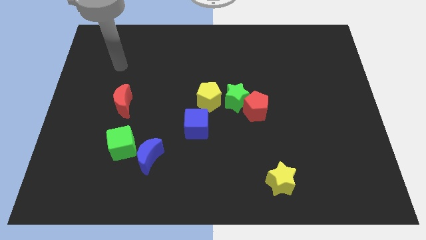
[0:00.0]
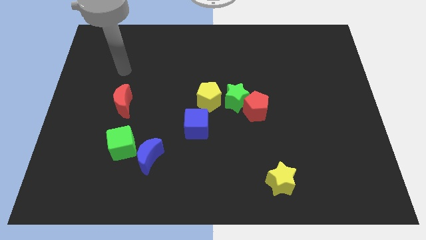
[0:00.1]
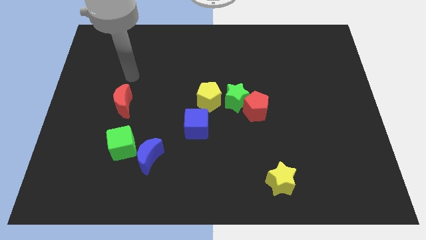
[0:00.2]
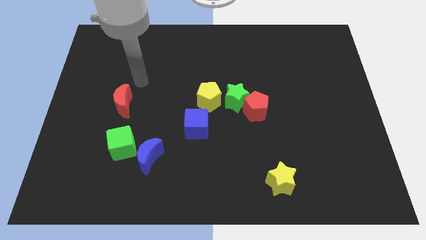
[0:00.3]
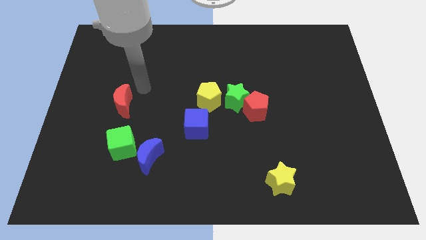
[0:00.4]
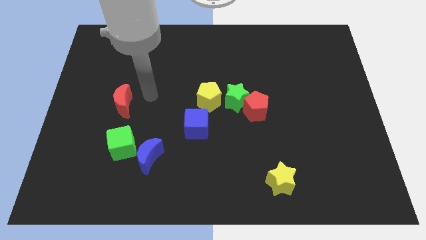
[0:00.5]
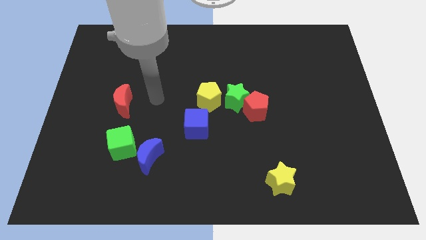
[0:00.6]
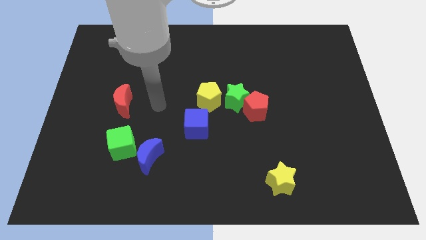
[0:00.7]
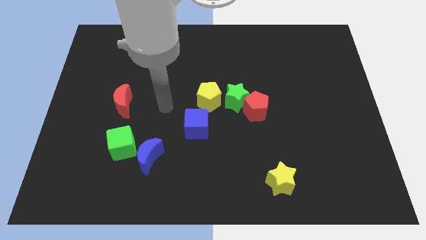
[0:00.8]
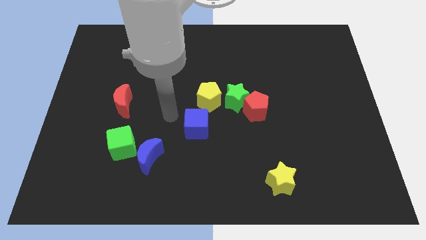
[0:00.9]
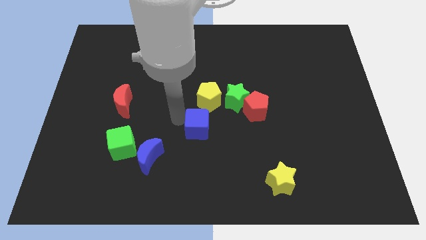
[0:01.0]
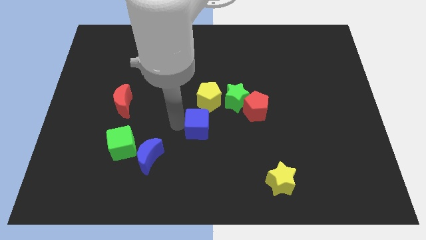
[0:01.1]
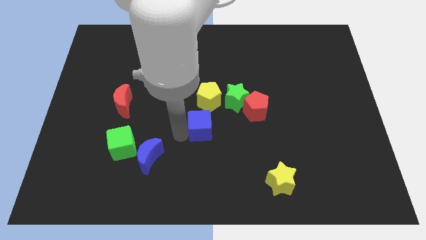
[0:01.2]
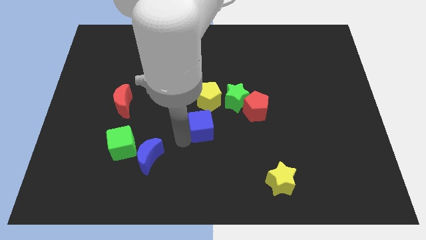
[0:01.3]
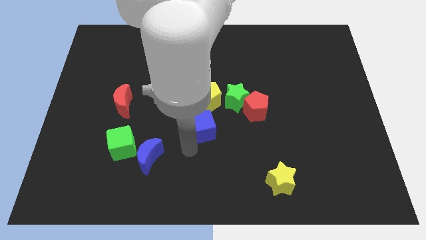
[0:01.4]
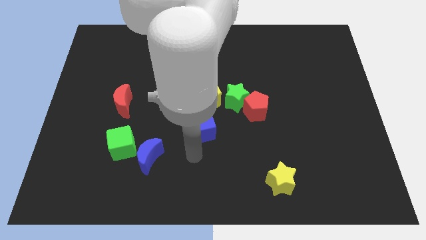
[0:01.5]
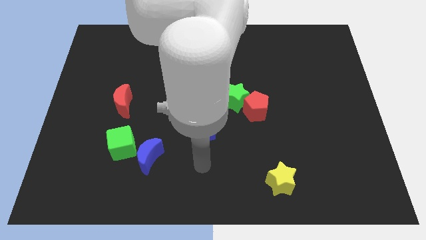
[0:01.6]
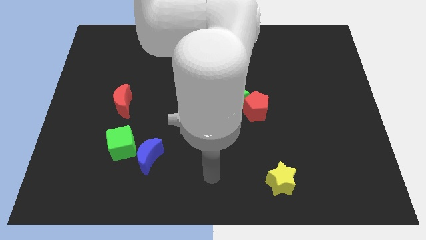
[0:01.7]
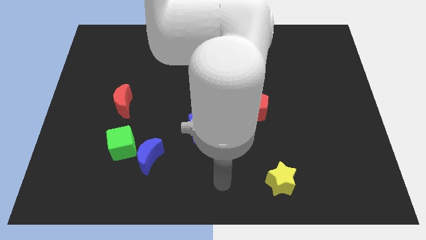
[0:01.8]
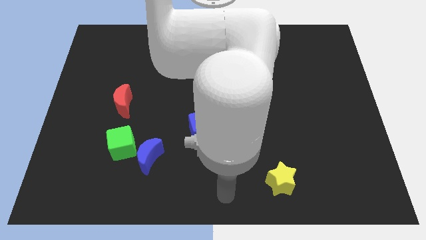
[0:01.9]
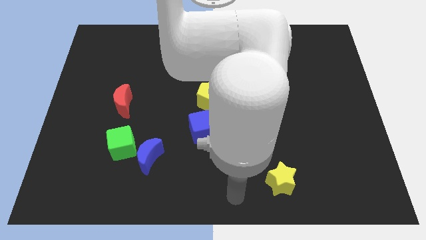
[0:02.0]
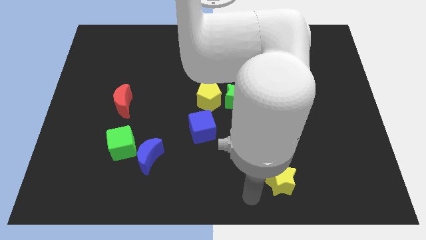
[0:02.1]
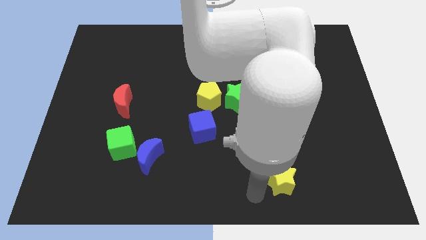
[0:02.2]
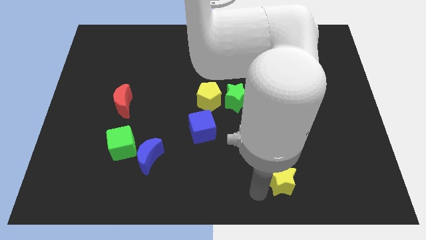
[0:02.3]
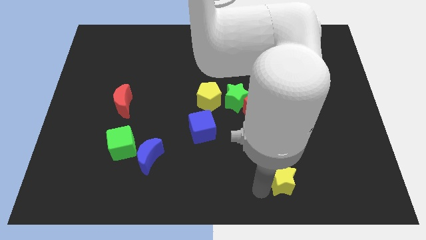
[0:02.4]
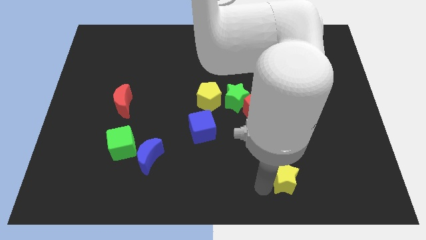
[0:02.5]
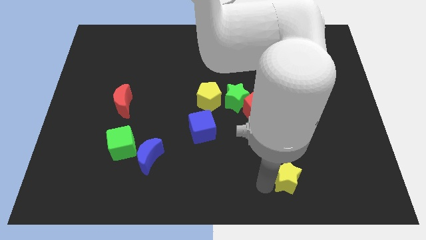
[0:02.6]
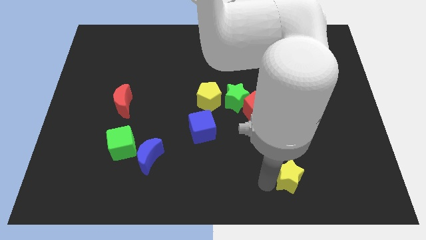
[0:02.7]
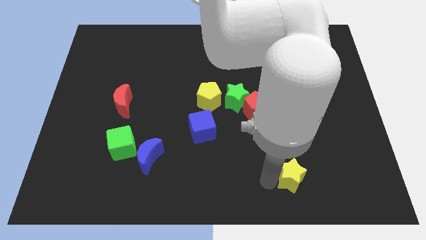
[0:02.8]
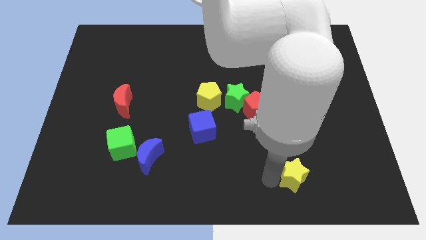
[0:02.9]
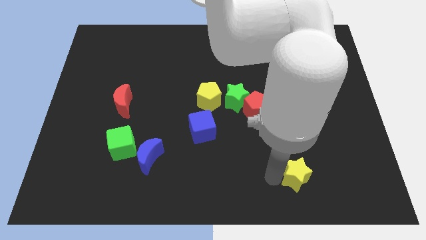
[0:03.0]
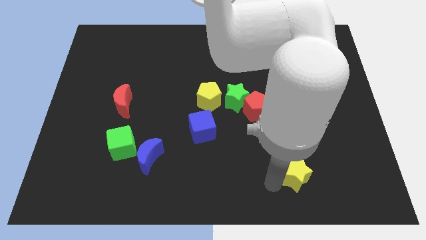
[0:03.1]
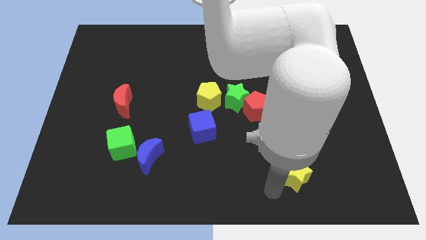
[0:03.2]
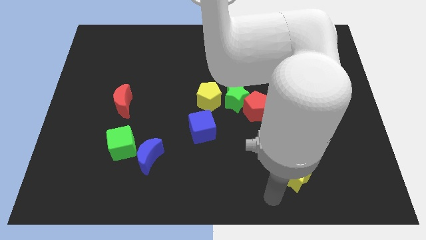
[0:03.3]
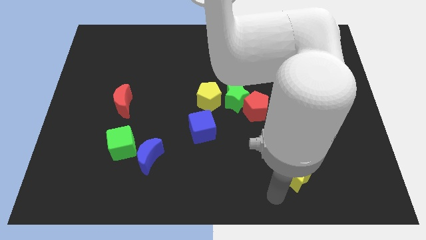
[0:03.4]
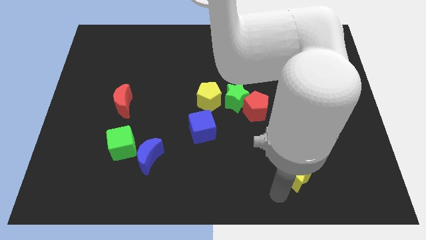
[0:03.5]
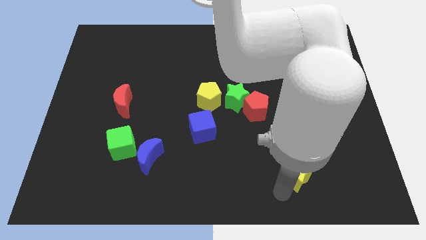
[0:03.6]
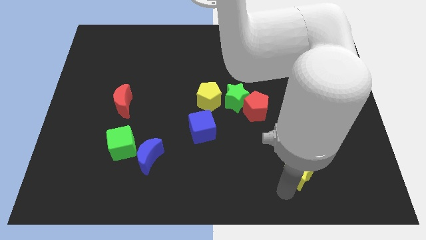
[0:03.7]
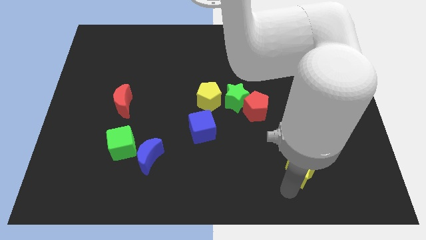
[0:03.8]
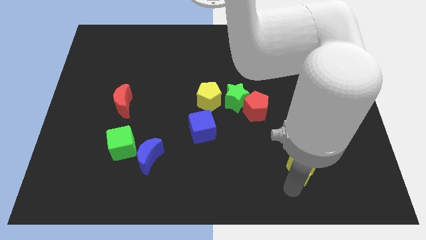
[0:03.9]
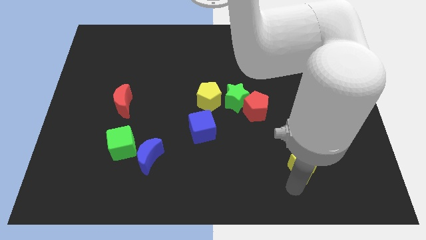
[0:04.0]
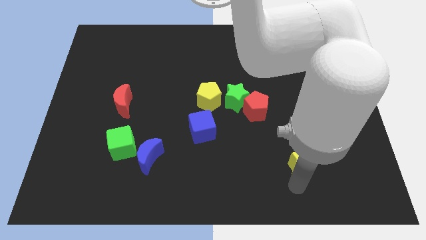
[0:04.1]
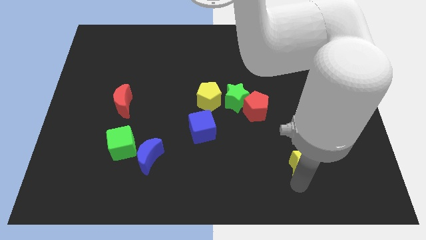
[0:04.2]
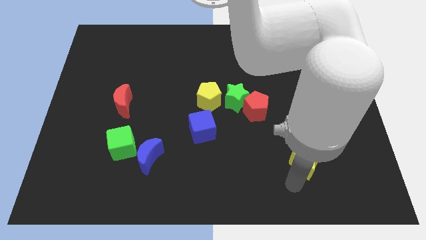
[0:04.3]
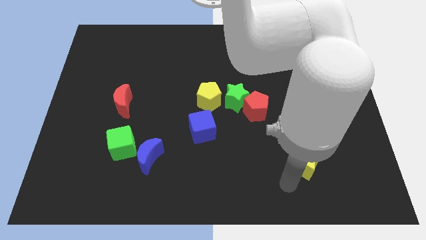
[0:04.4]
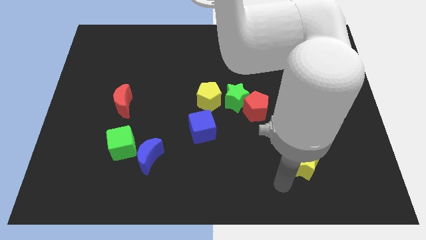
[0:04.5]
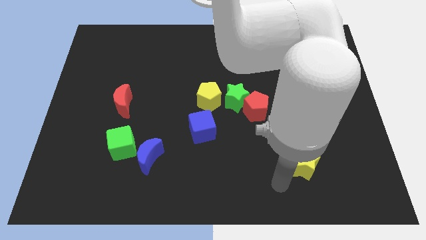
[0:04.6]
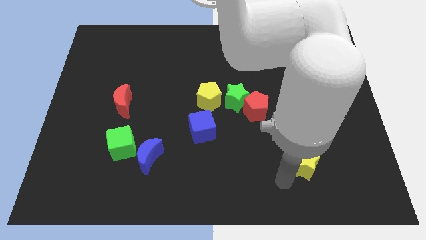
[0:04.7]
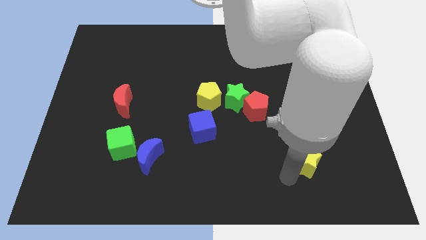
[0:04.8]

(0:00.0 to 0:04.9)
slightly move the yellow star upwards and then to the right

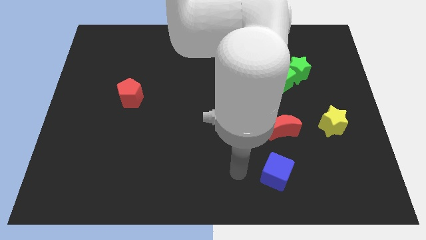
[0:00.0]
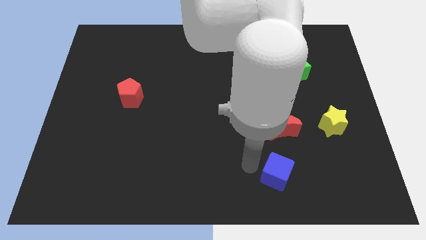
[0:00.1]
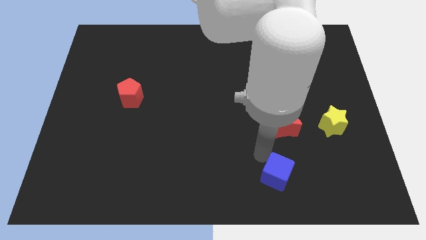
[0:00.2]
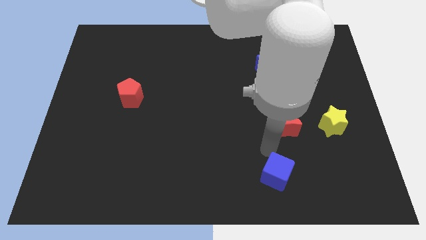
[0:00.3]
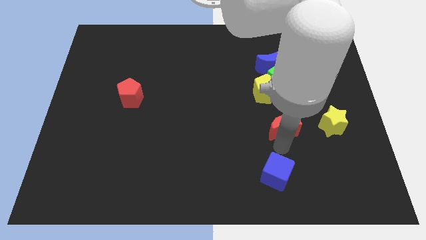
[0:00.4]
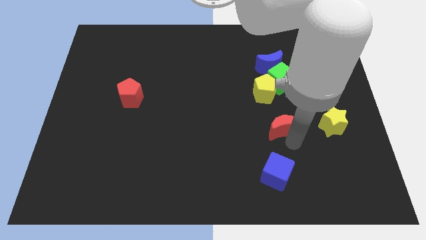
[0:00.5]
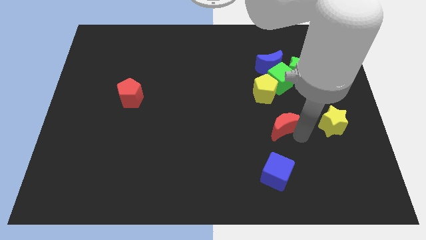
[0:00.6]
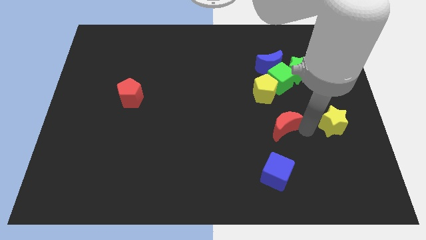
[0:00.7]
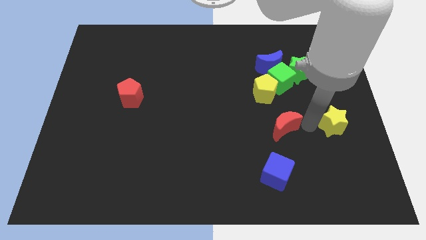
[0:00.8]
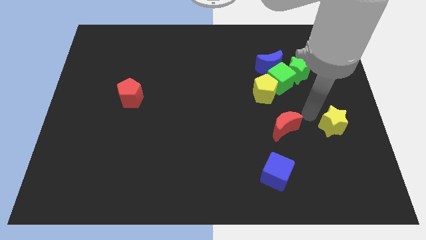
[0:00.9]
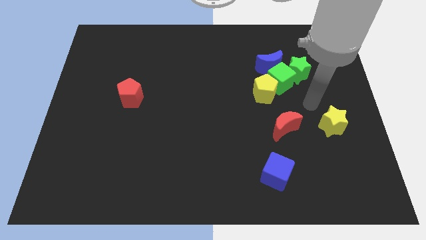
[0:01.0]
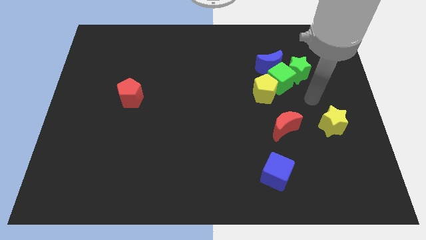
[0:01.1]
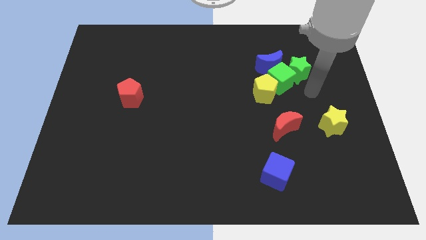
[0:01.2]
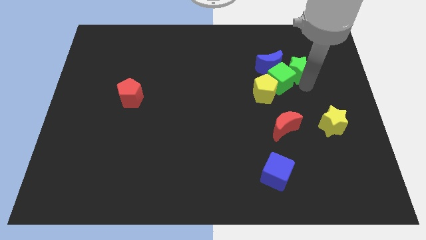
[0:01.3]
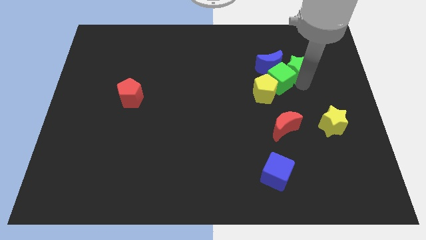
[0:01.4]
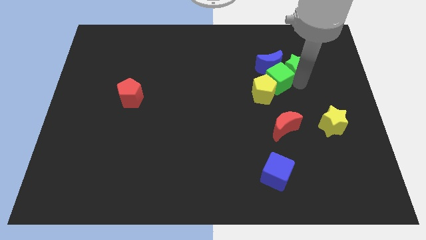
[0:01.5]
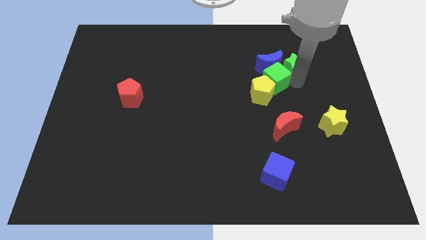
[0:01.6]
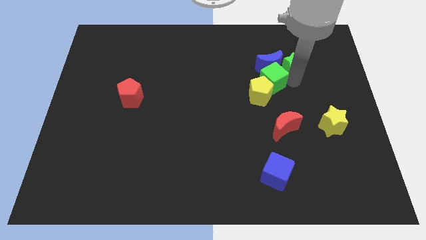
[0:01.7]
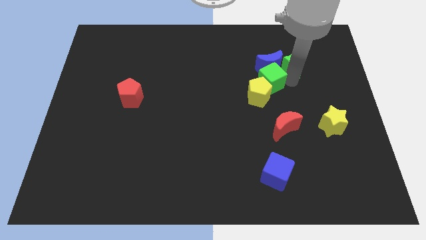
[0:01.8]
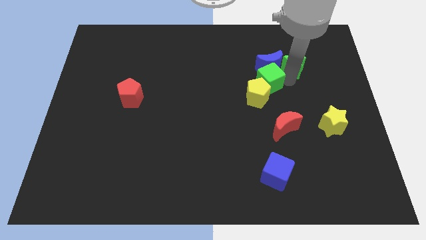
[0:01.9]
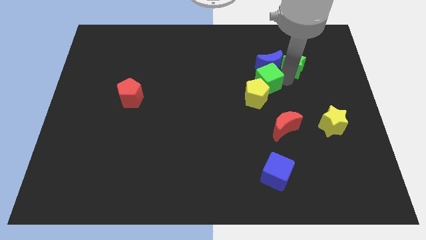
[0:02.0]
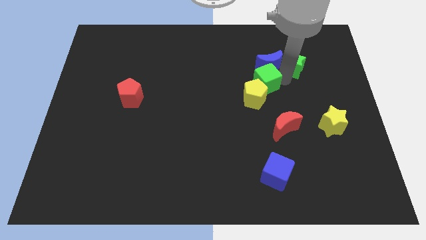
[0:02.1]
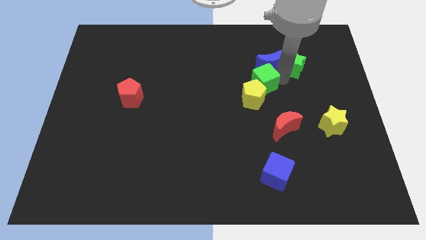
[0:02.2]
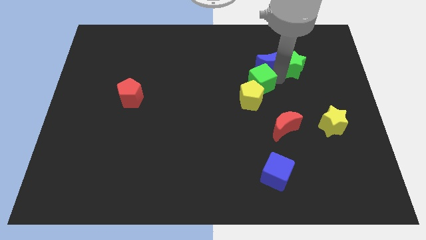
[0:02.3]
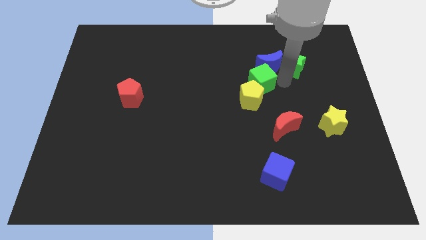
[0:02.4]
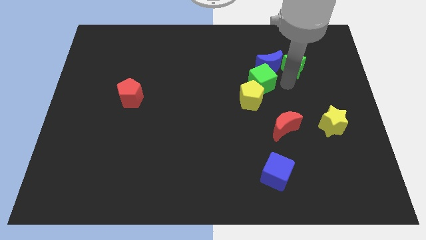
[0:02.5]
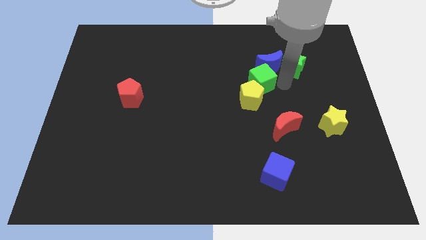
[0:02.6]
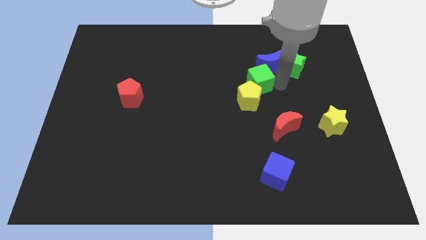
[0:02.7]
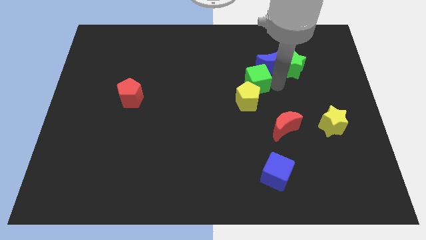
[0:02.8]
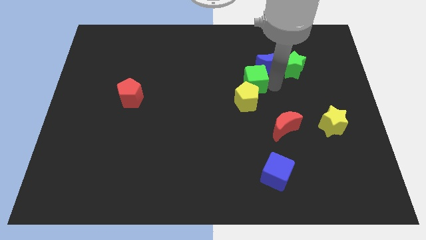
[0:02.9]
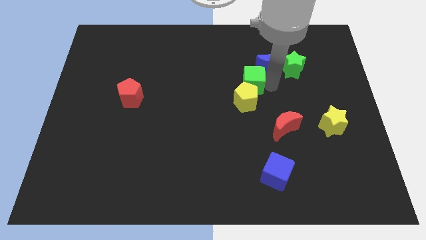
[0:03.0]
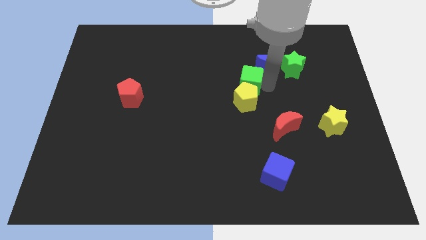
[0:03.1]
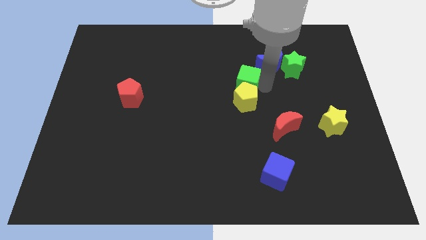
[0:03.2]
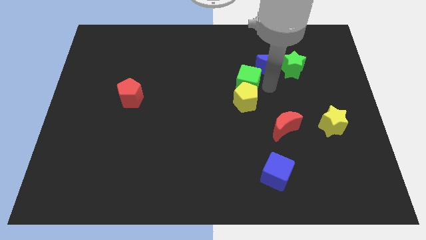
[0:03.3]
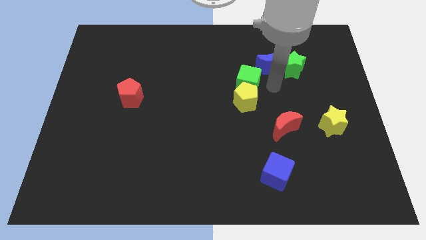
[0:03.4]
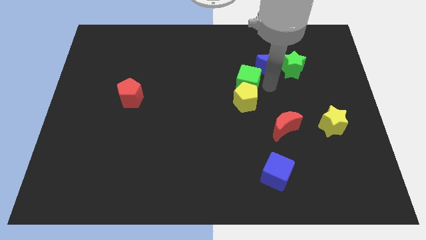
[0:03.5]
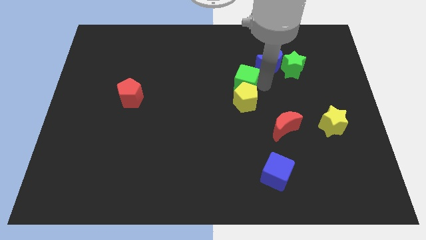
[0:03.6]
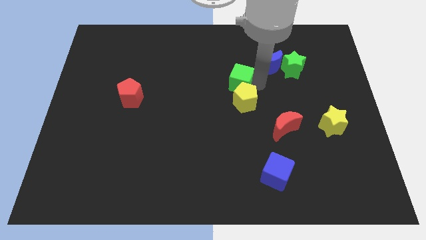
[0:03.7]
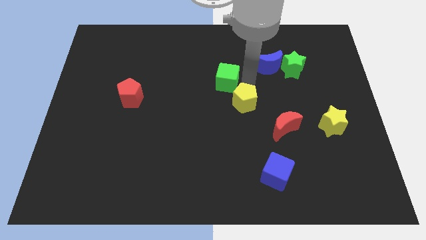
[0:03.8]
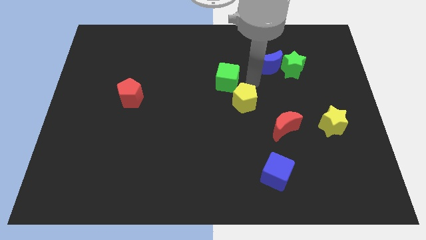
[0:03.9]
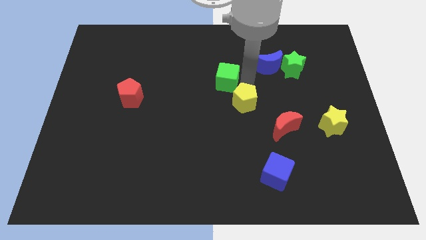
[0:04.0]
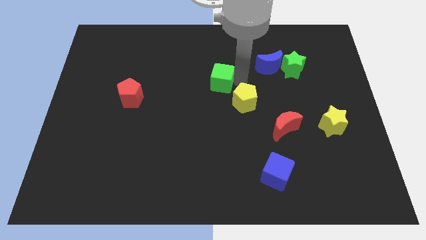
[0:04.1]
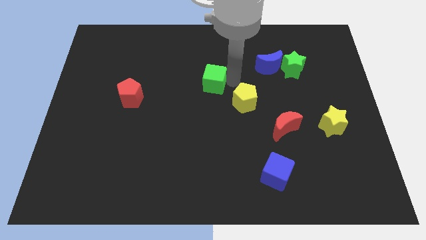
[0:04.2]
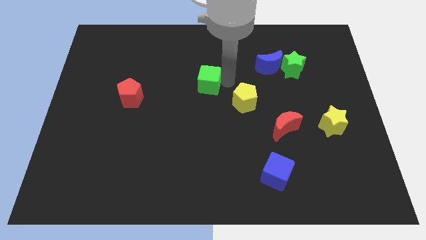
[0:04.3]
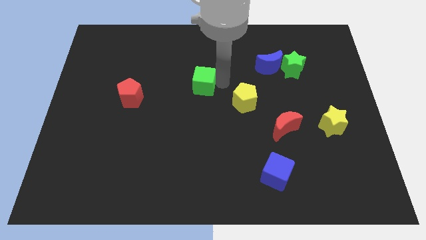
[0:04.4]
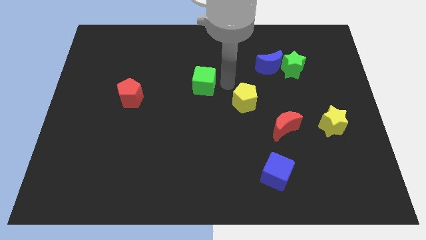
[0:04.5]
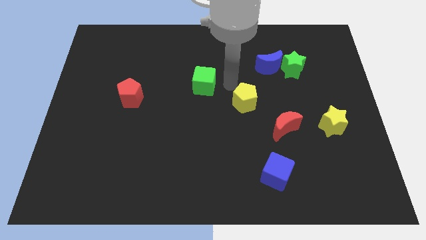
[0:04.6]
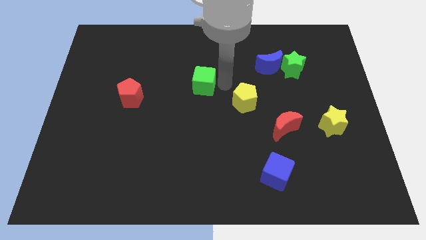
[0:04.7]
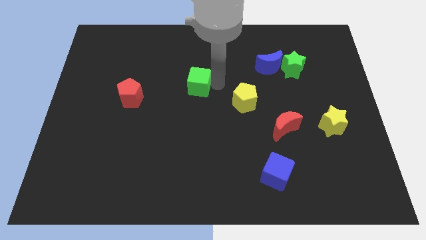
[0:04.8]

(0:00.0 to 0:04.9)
slide the green cube to the left
